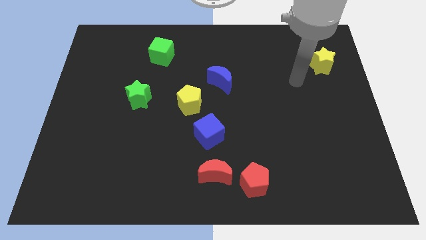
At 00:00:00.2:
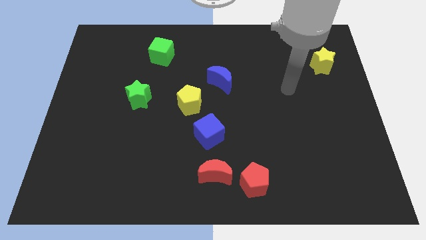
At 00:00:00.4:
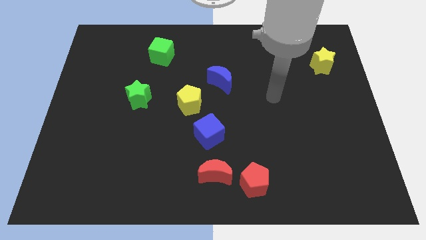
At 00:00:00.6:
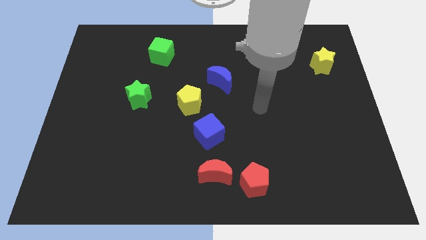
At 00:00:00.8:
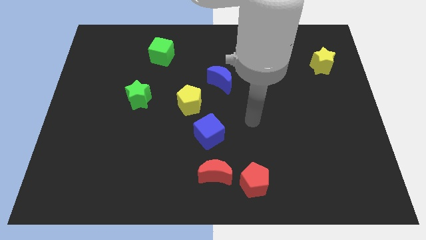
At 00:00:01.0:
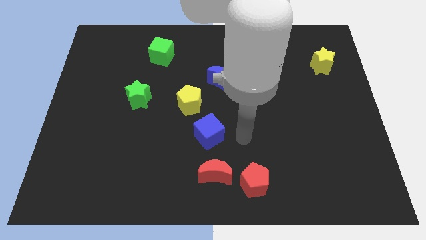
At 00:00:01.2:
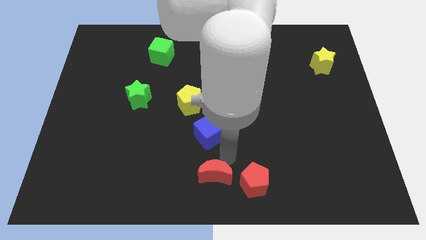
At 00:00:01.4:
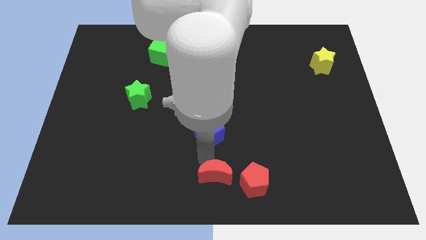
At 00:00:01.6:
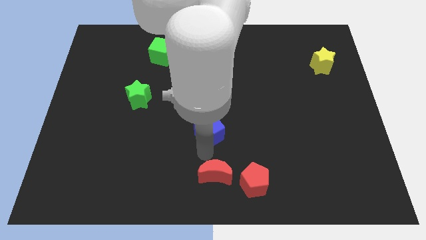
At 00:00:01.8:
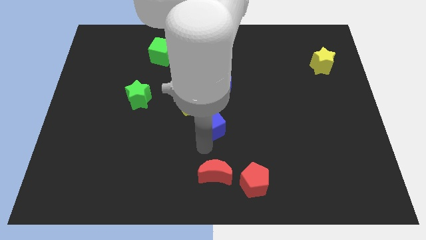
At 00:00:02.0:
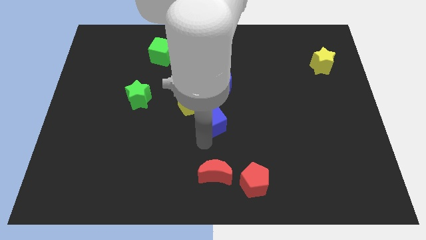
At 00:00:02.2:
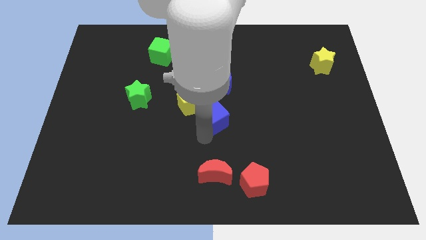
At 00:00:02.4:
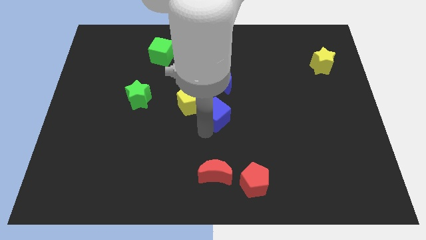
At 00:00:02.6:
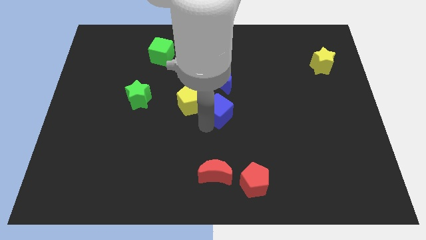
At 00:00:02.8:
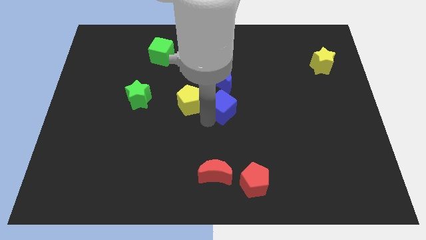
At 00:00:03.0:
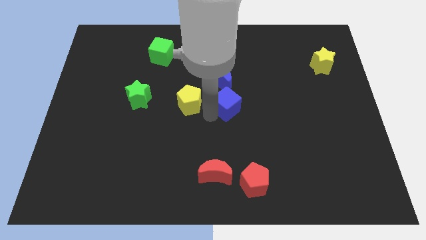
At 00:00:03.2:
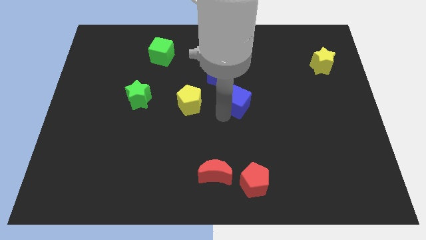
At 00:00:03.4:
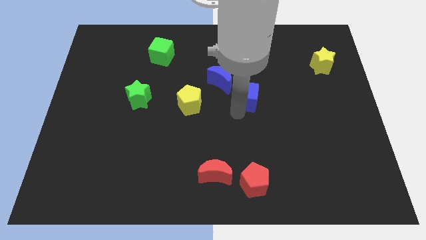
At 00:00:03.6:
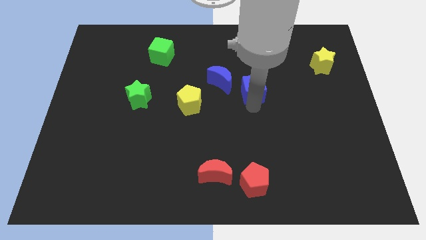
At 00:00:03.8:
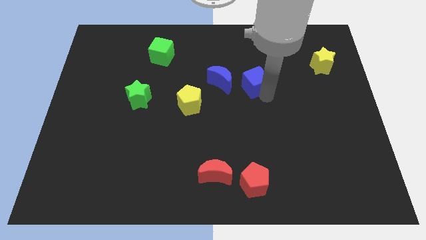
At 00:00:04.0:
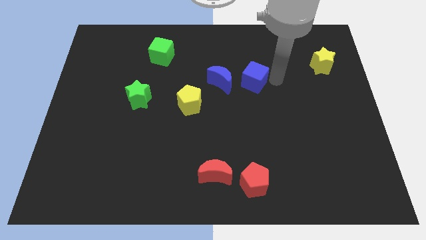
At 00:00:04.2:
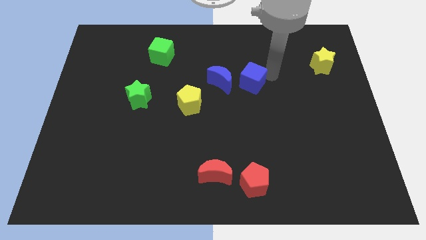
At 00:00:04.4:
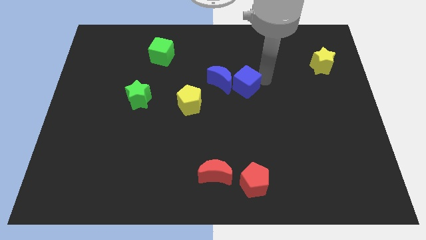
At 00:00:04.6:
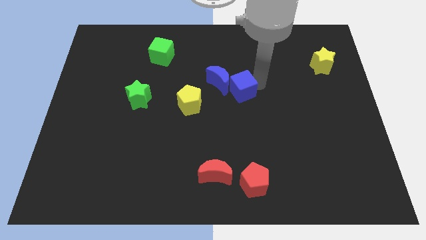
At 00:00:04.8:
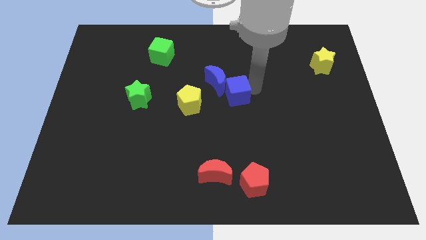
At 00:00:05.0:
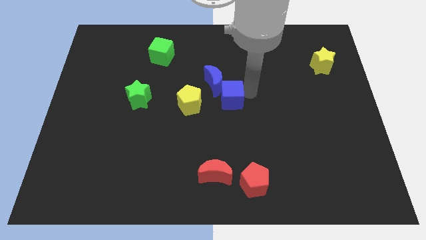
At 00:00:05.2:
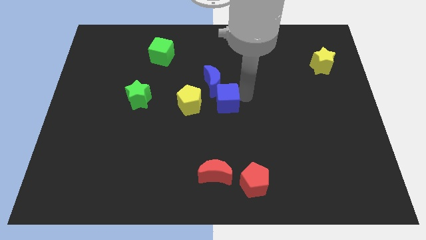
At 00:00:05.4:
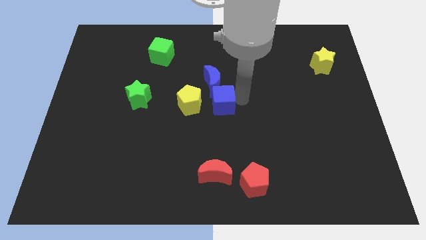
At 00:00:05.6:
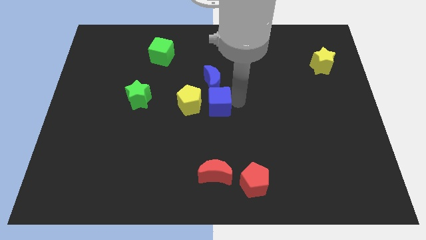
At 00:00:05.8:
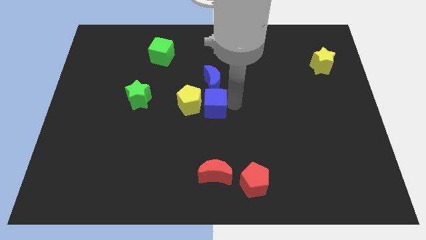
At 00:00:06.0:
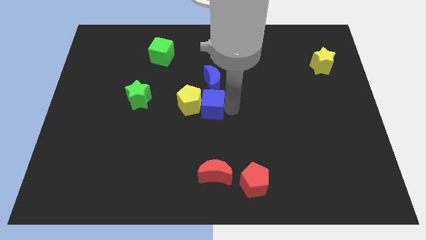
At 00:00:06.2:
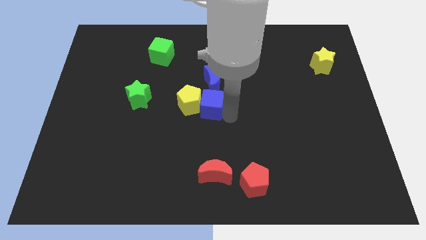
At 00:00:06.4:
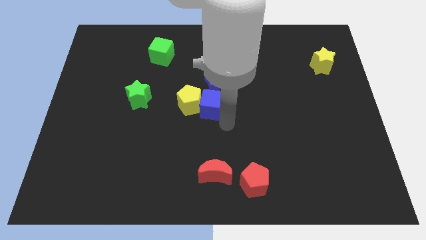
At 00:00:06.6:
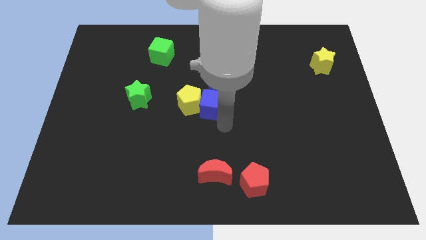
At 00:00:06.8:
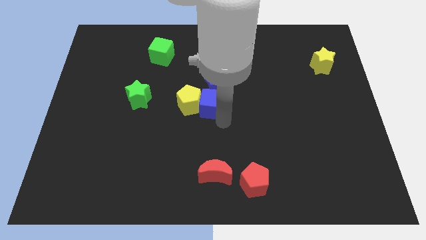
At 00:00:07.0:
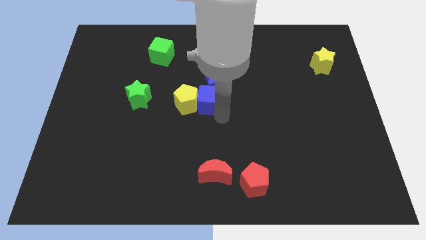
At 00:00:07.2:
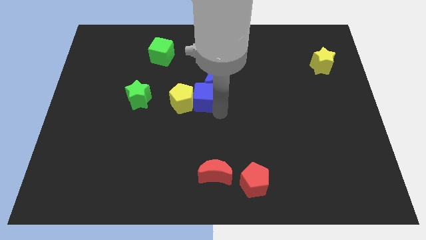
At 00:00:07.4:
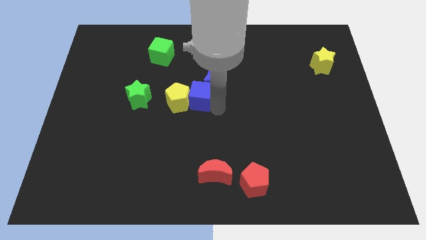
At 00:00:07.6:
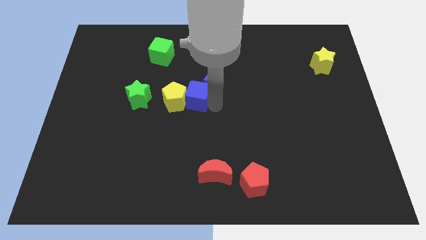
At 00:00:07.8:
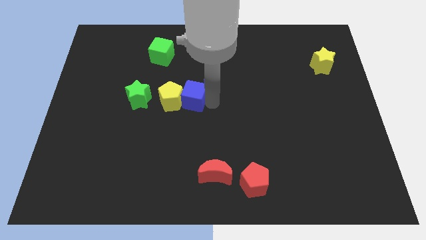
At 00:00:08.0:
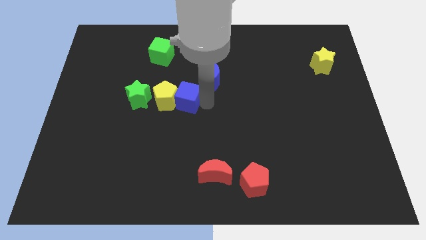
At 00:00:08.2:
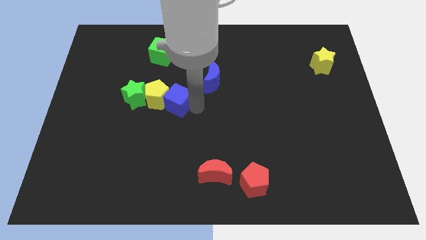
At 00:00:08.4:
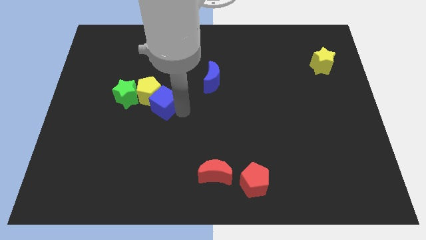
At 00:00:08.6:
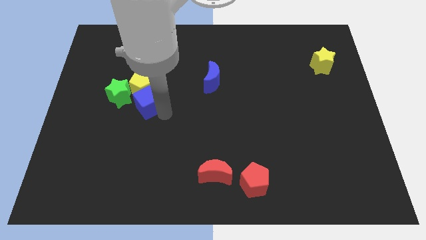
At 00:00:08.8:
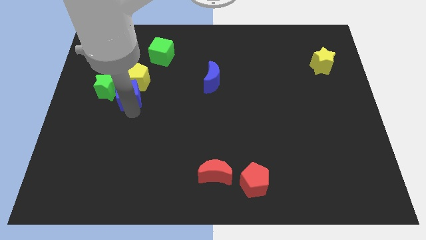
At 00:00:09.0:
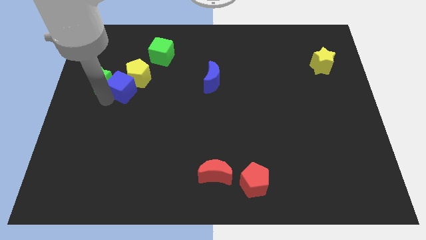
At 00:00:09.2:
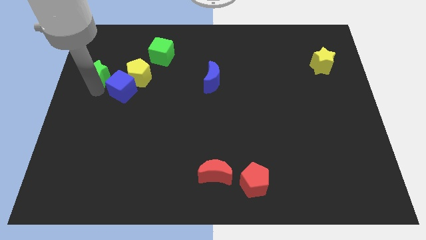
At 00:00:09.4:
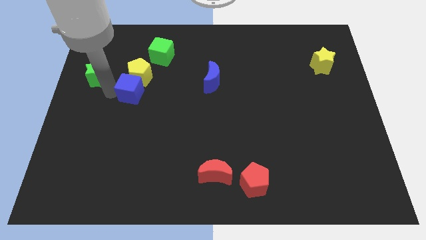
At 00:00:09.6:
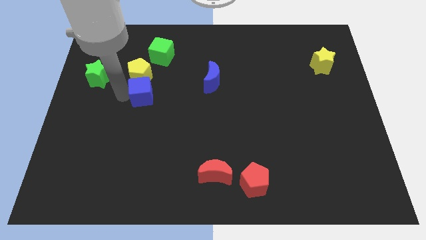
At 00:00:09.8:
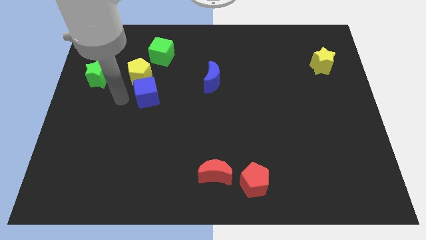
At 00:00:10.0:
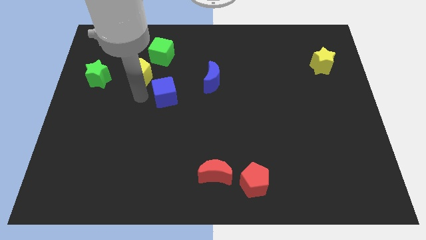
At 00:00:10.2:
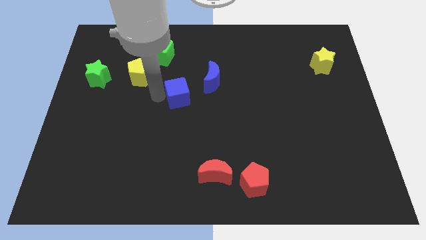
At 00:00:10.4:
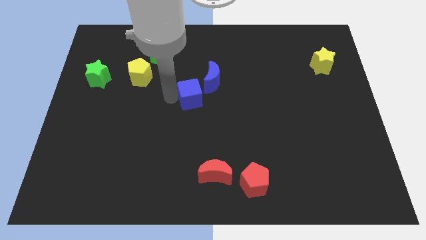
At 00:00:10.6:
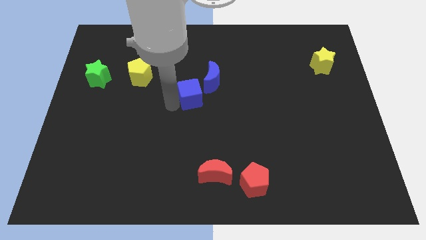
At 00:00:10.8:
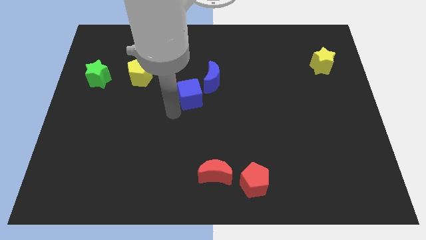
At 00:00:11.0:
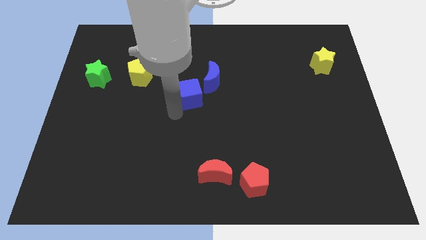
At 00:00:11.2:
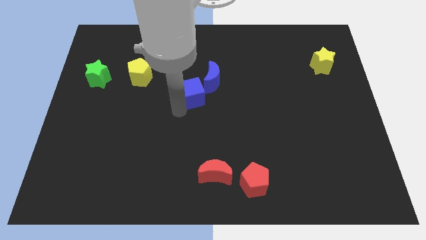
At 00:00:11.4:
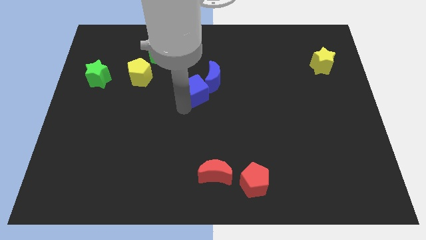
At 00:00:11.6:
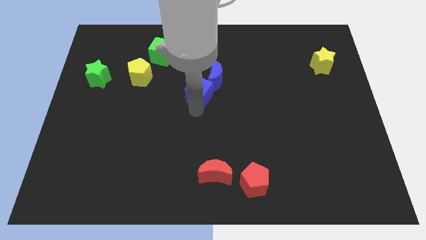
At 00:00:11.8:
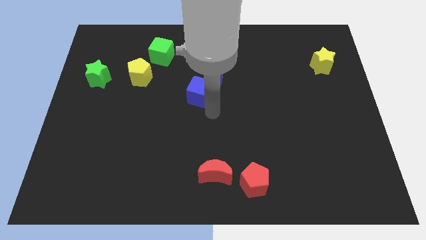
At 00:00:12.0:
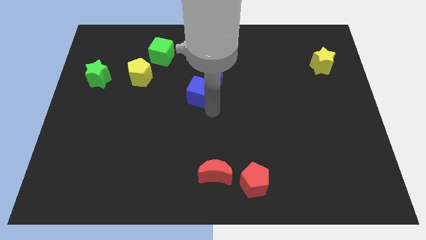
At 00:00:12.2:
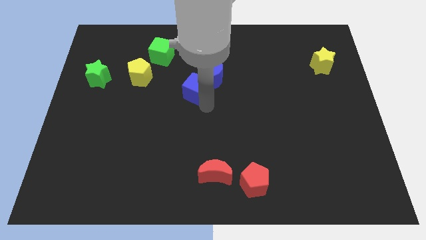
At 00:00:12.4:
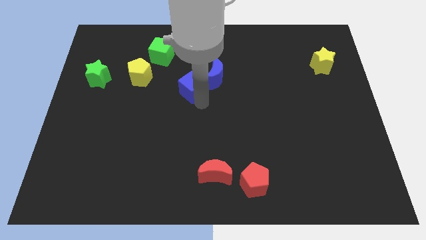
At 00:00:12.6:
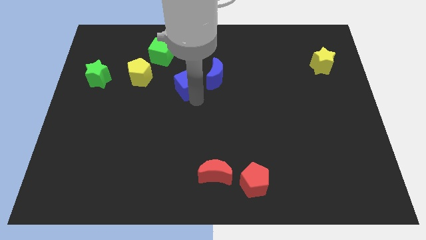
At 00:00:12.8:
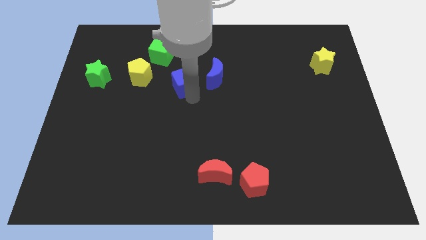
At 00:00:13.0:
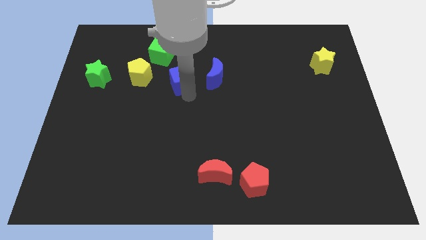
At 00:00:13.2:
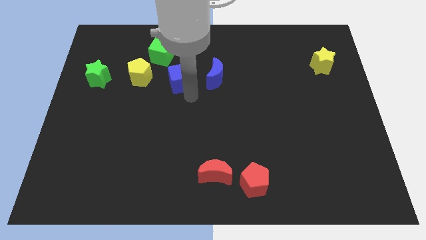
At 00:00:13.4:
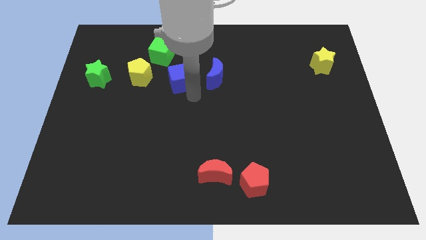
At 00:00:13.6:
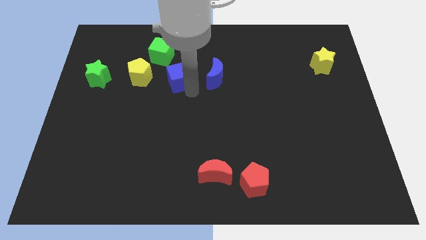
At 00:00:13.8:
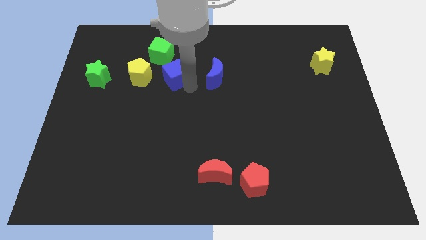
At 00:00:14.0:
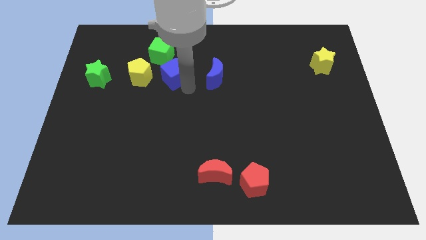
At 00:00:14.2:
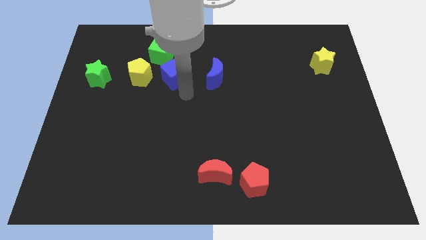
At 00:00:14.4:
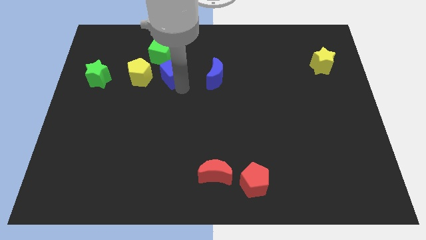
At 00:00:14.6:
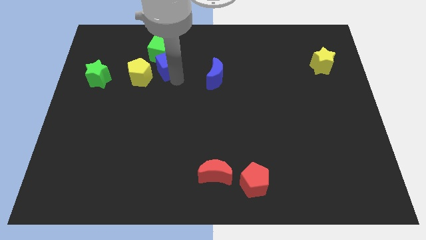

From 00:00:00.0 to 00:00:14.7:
put the blue cube close to the green cube
